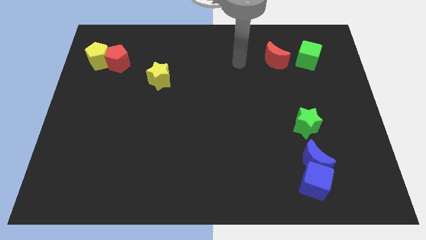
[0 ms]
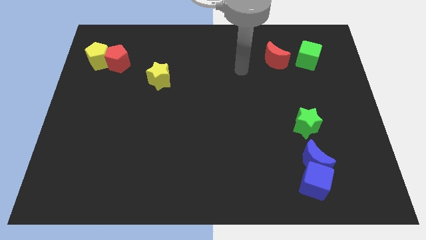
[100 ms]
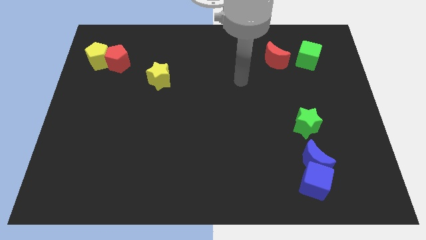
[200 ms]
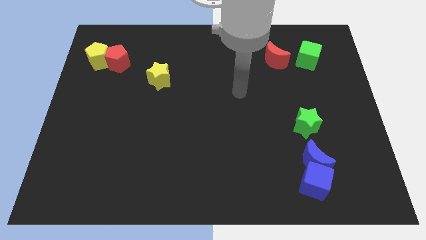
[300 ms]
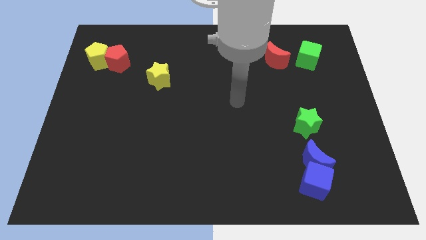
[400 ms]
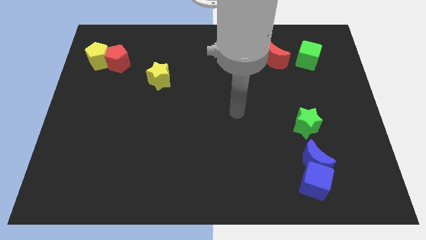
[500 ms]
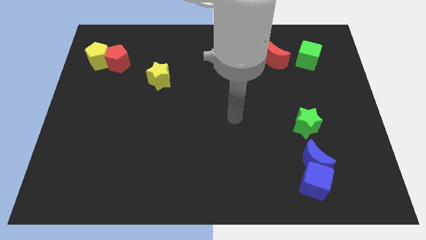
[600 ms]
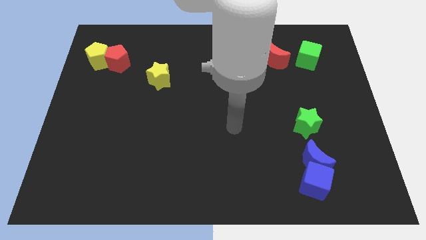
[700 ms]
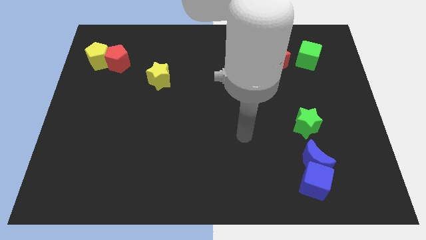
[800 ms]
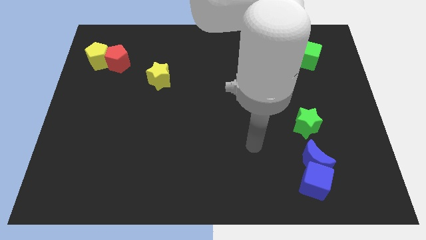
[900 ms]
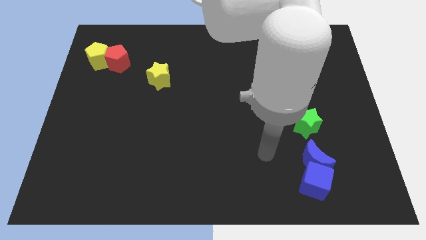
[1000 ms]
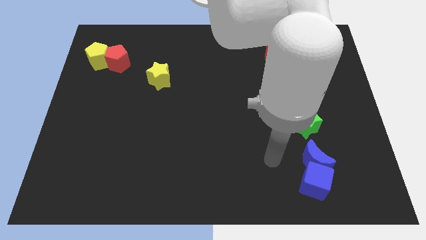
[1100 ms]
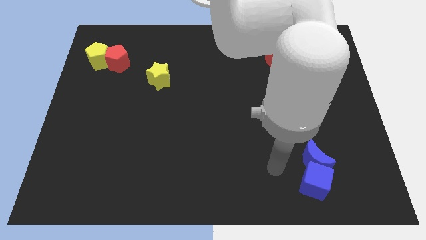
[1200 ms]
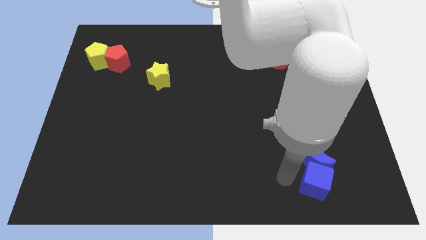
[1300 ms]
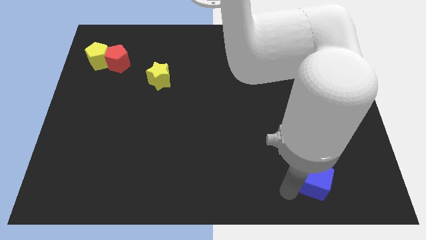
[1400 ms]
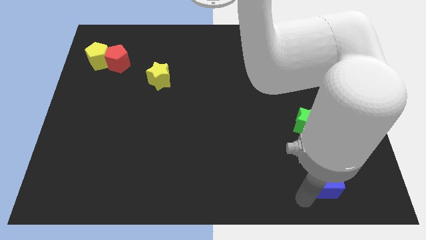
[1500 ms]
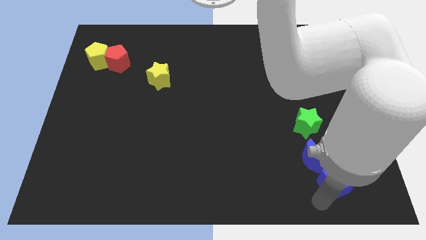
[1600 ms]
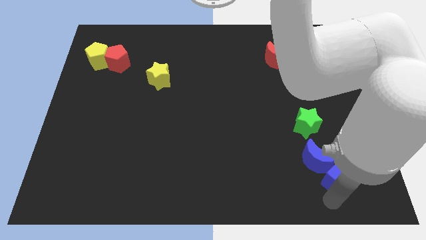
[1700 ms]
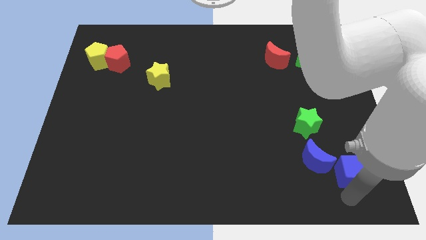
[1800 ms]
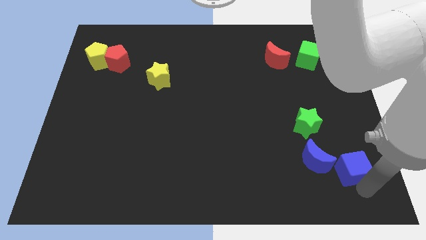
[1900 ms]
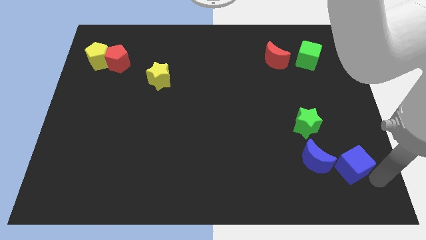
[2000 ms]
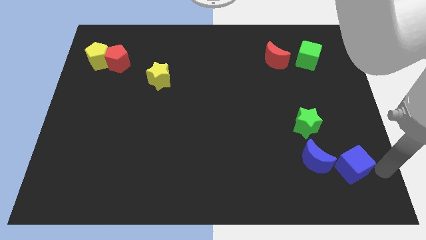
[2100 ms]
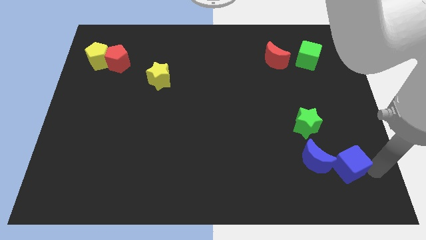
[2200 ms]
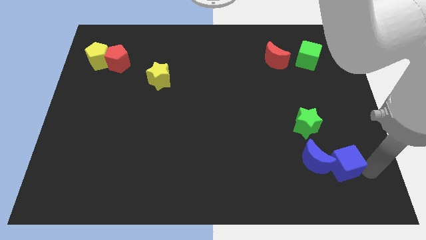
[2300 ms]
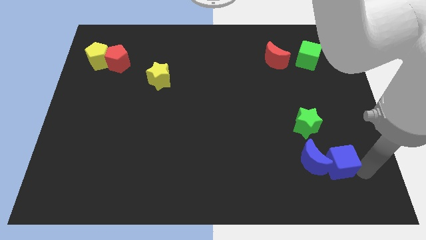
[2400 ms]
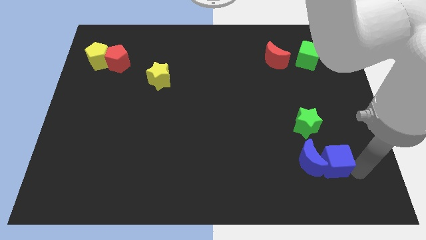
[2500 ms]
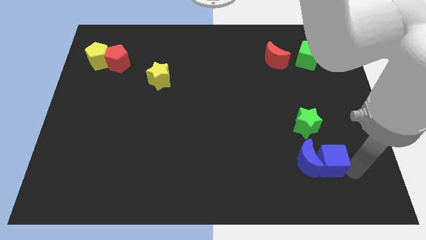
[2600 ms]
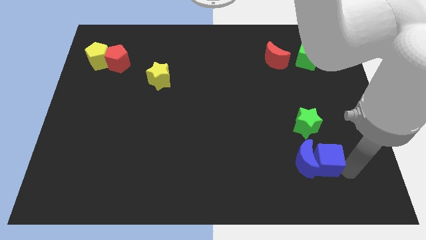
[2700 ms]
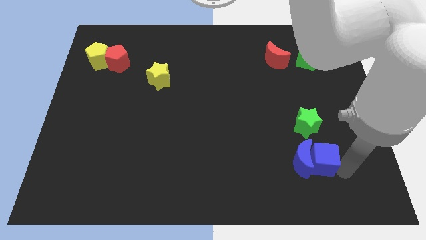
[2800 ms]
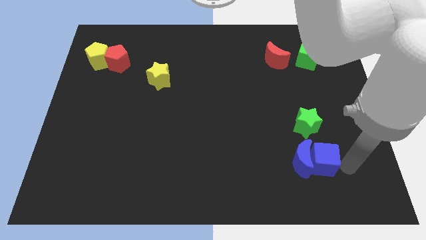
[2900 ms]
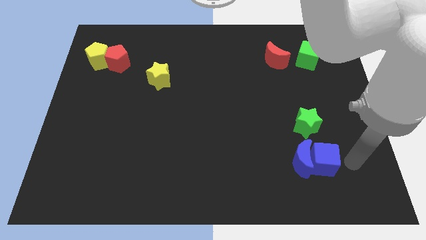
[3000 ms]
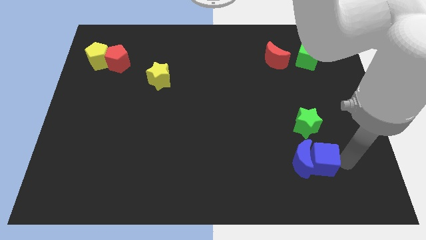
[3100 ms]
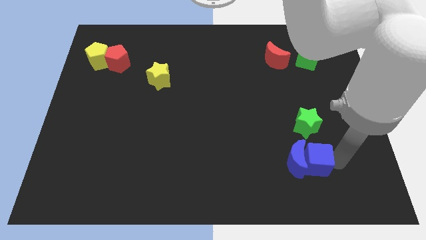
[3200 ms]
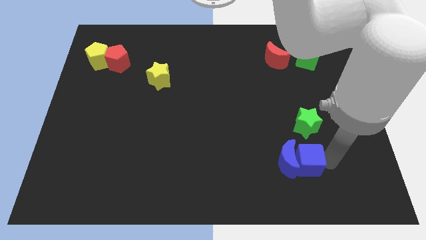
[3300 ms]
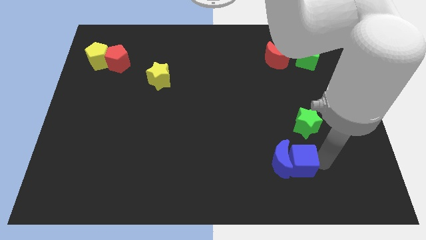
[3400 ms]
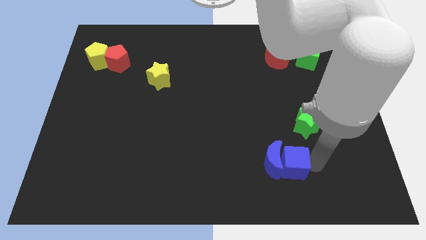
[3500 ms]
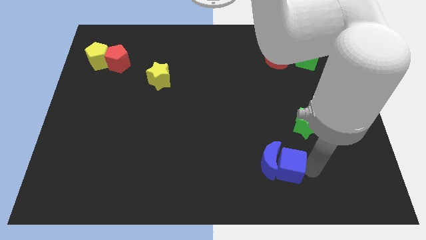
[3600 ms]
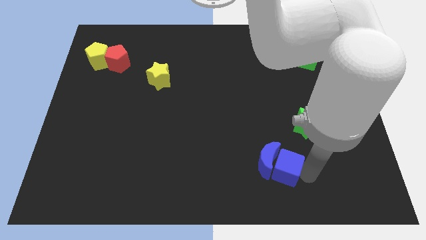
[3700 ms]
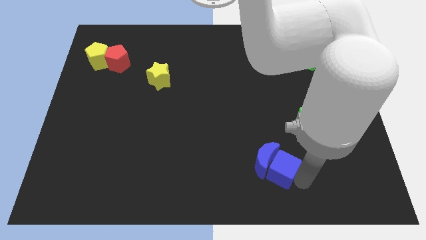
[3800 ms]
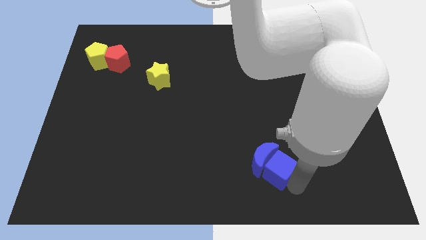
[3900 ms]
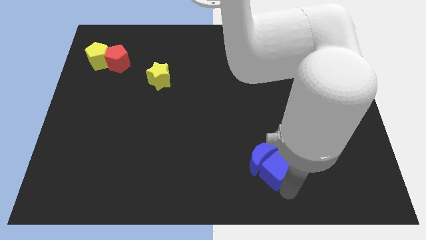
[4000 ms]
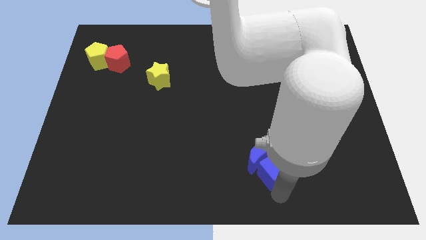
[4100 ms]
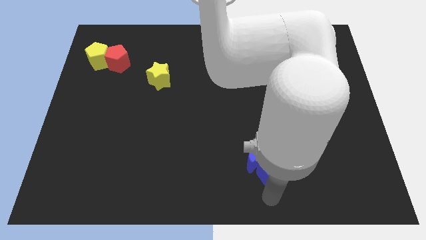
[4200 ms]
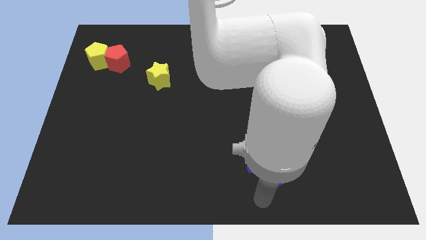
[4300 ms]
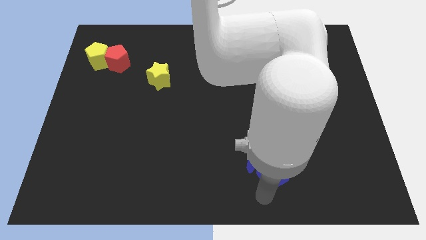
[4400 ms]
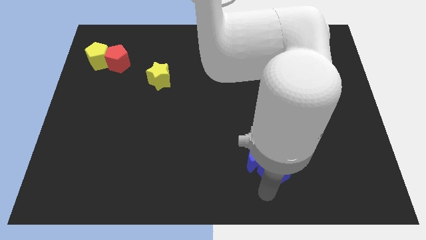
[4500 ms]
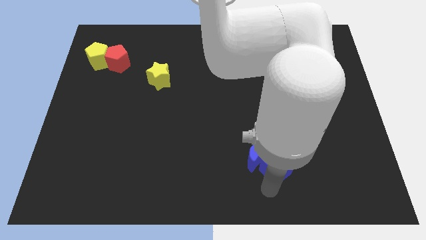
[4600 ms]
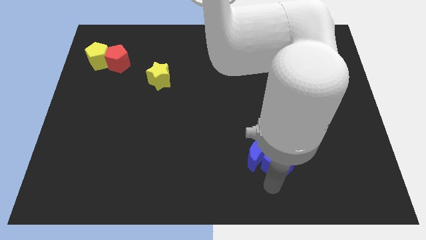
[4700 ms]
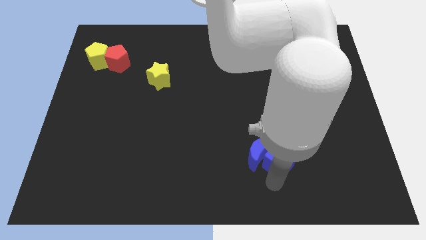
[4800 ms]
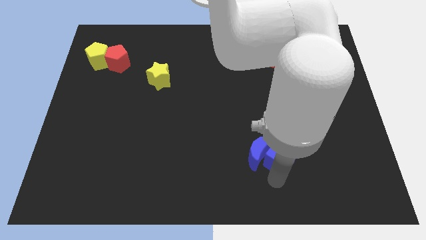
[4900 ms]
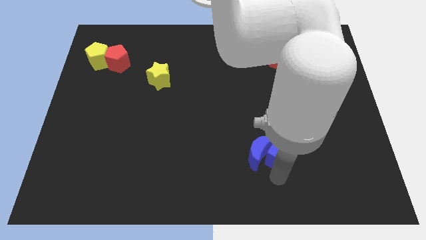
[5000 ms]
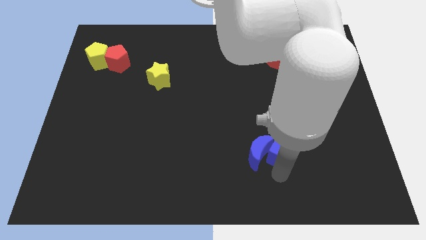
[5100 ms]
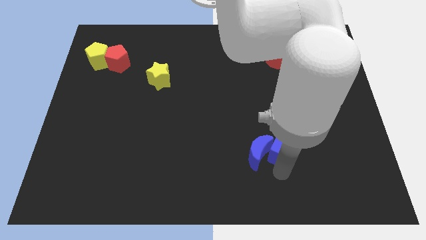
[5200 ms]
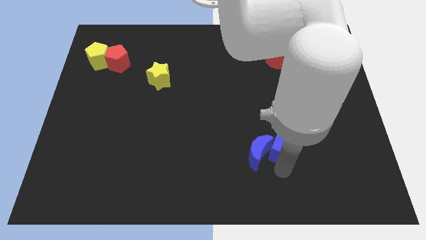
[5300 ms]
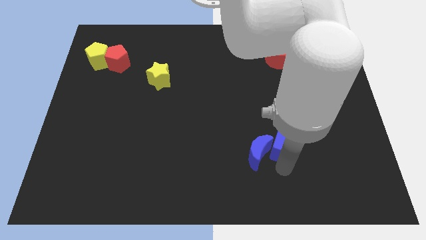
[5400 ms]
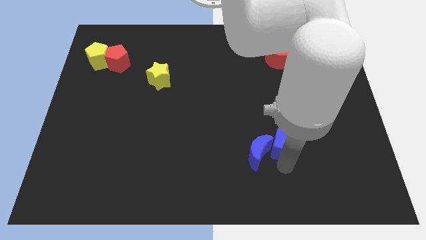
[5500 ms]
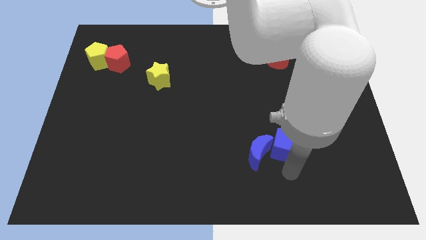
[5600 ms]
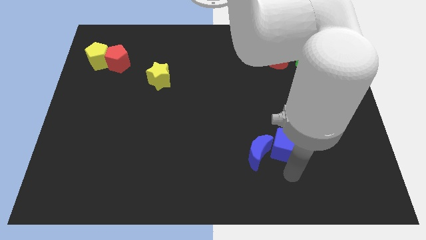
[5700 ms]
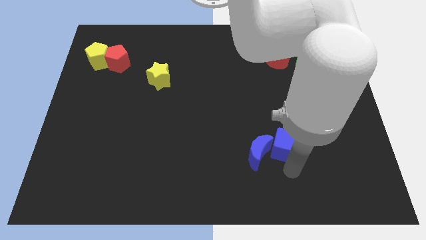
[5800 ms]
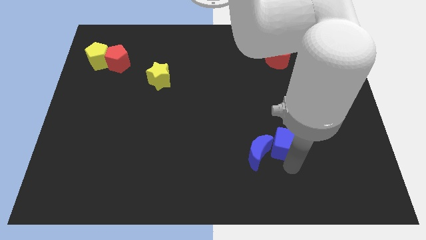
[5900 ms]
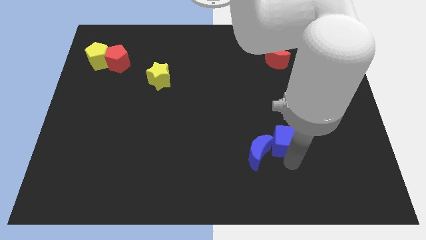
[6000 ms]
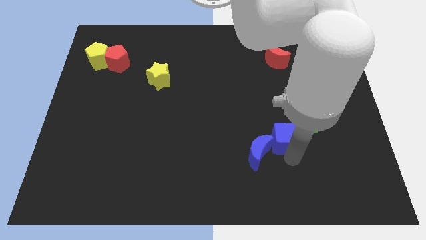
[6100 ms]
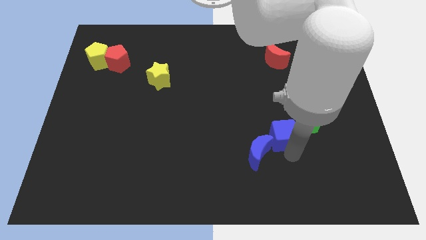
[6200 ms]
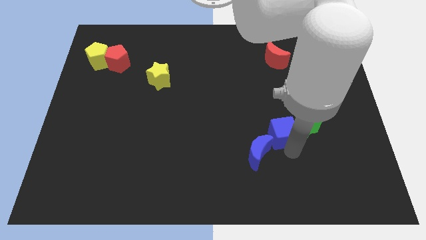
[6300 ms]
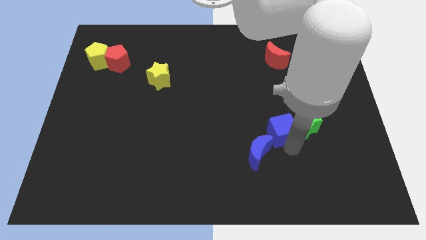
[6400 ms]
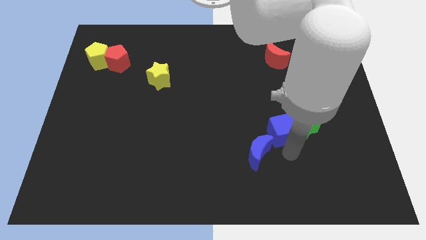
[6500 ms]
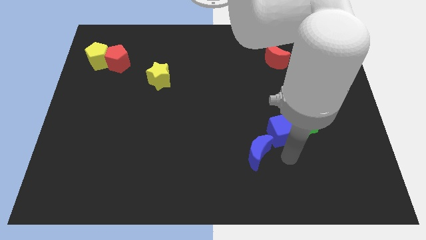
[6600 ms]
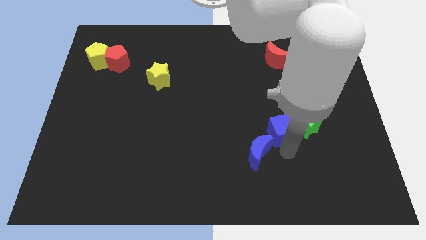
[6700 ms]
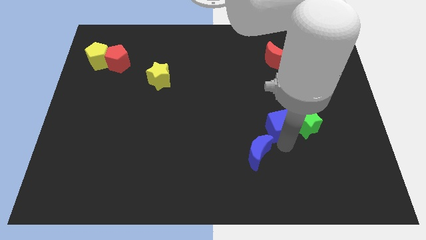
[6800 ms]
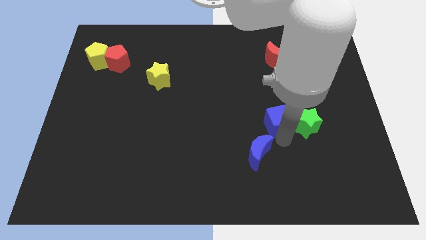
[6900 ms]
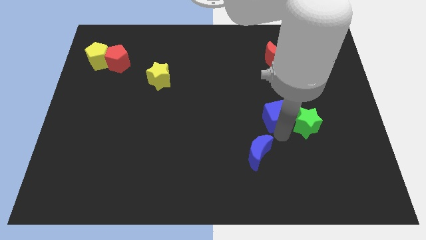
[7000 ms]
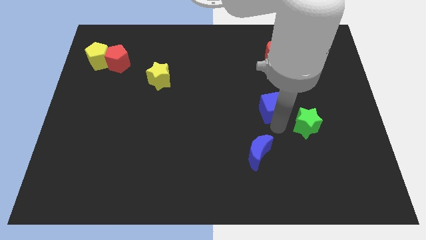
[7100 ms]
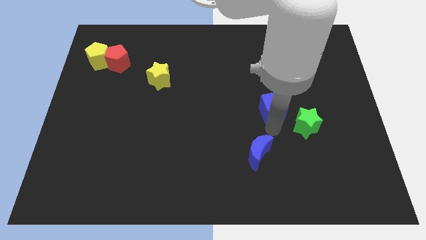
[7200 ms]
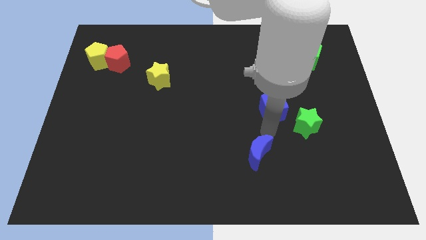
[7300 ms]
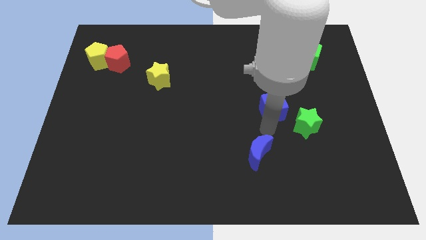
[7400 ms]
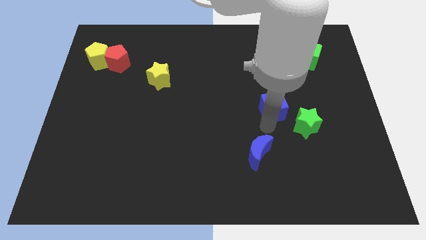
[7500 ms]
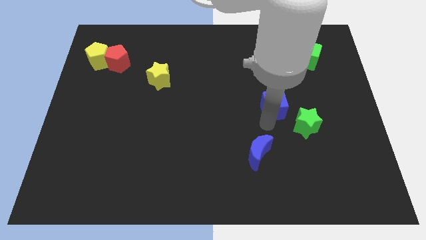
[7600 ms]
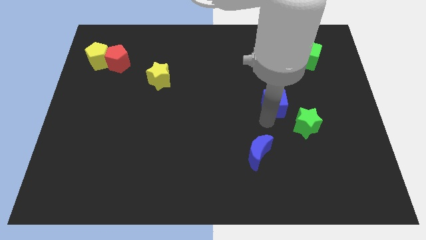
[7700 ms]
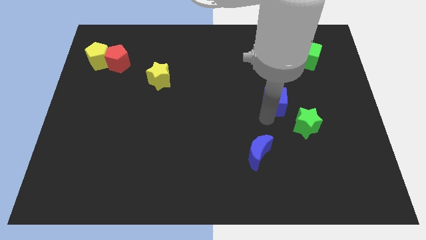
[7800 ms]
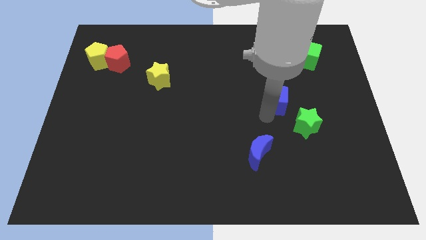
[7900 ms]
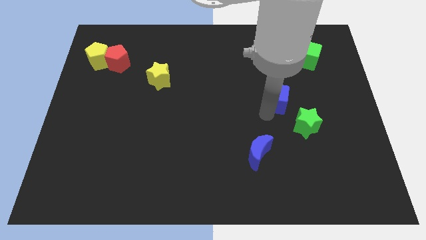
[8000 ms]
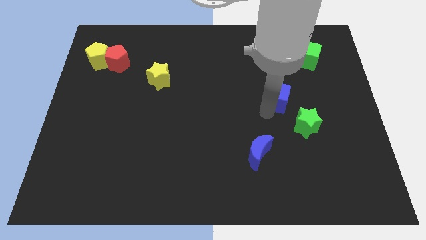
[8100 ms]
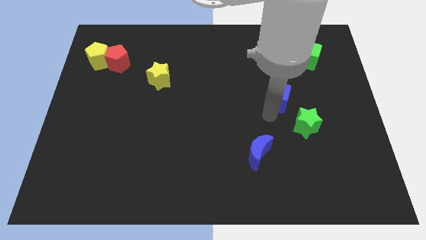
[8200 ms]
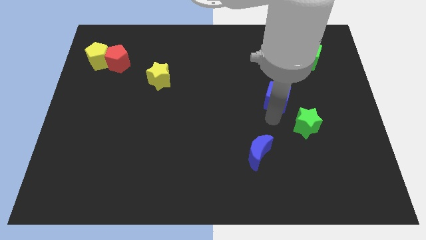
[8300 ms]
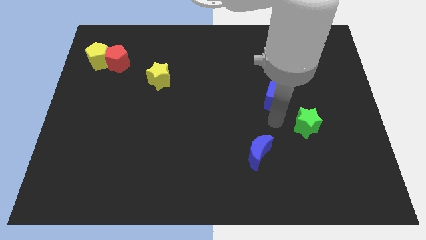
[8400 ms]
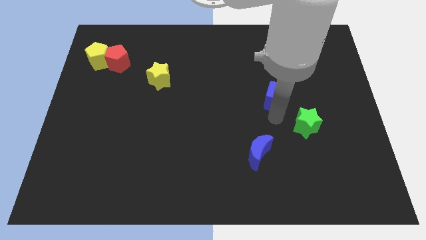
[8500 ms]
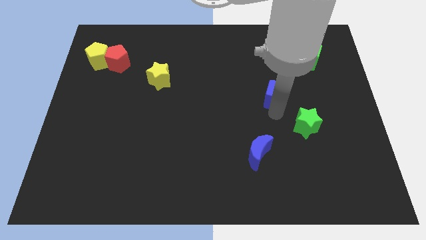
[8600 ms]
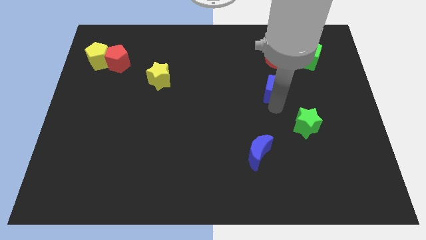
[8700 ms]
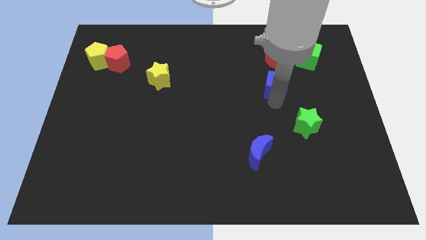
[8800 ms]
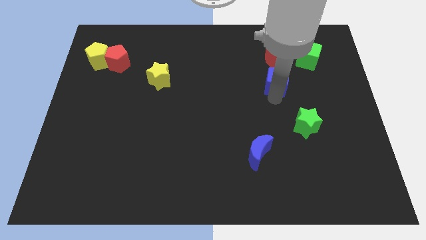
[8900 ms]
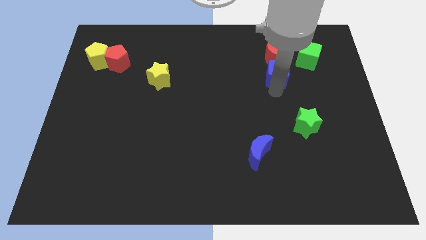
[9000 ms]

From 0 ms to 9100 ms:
push the blue cube to the red moon
